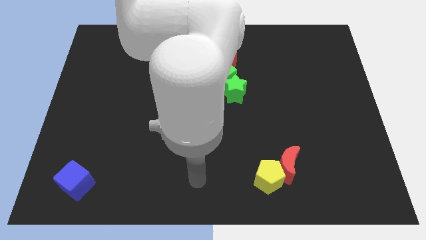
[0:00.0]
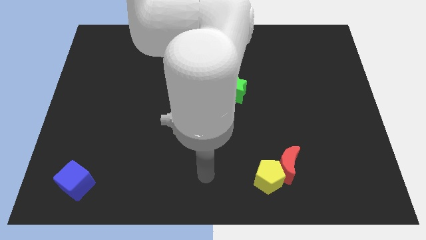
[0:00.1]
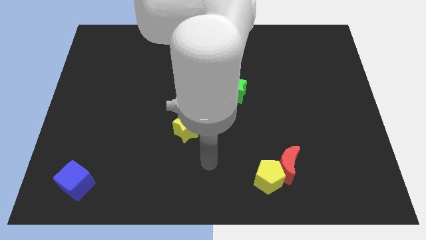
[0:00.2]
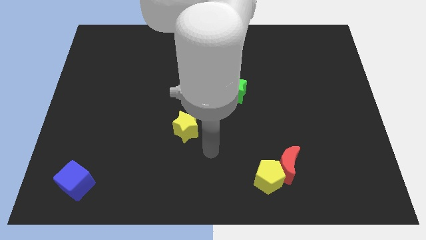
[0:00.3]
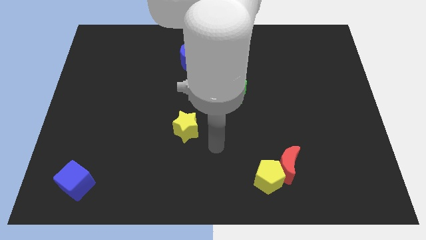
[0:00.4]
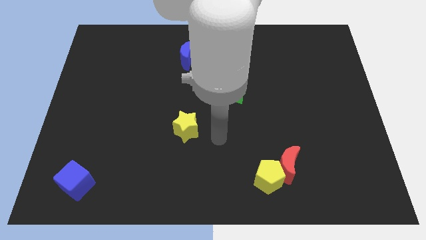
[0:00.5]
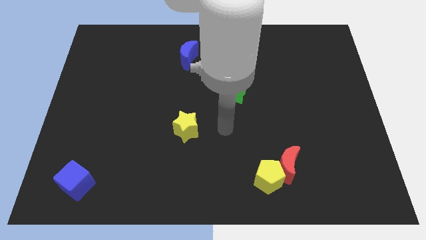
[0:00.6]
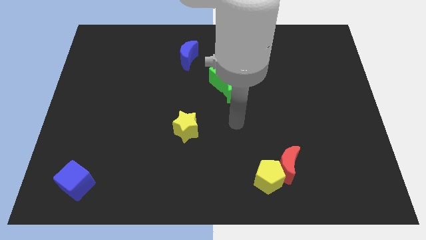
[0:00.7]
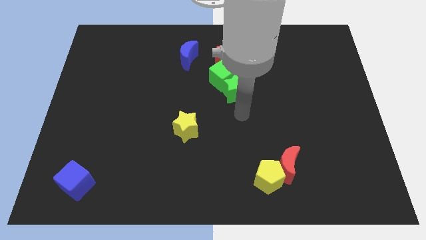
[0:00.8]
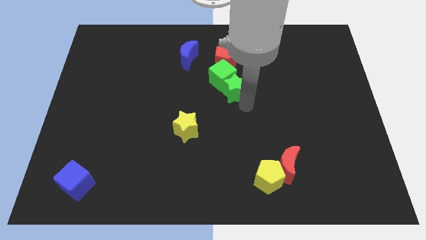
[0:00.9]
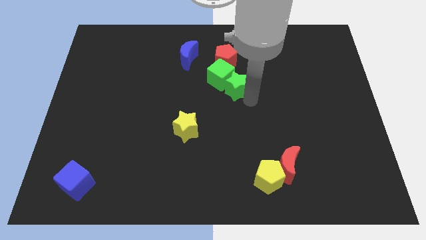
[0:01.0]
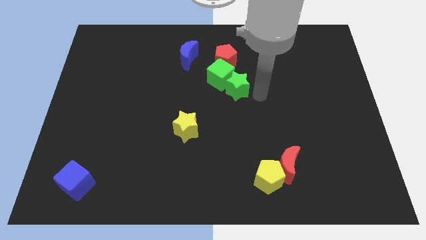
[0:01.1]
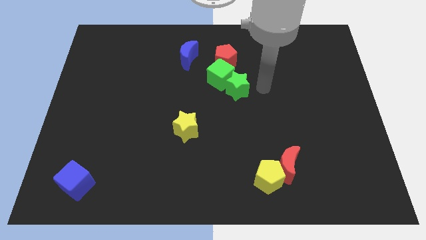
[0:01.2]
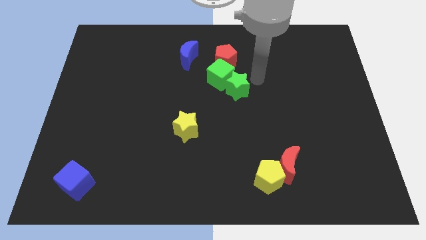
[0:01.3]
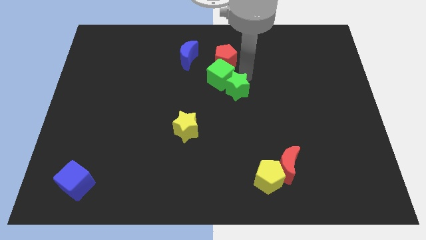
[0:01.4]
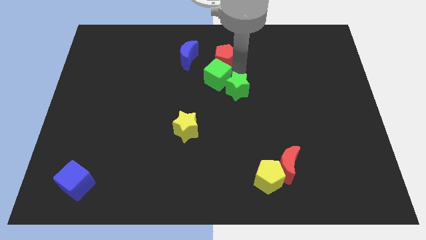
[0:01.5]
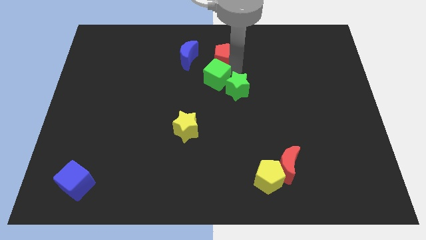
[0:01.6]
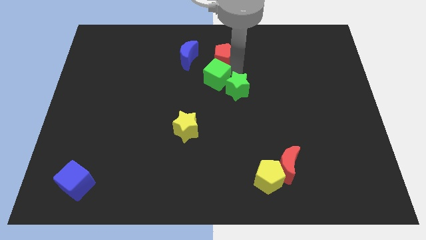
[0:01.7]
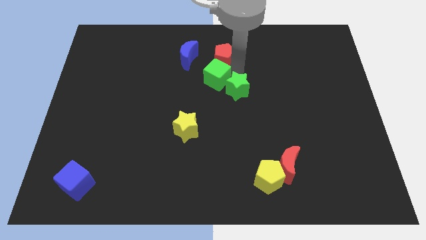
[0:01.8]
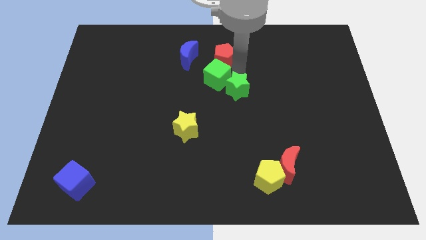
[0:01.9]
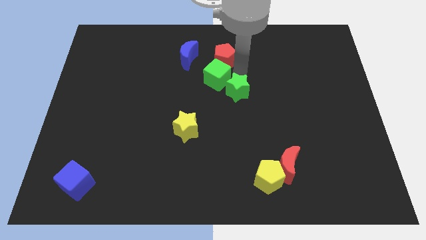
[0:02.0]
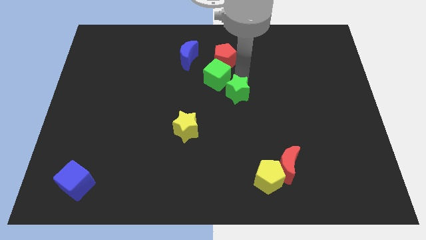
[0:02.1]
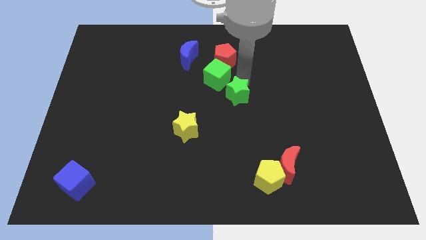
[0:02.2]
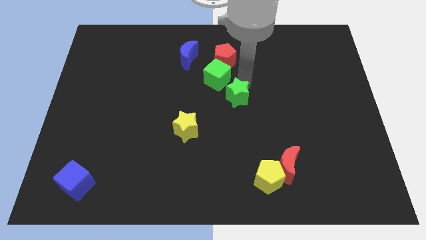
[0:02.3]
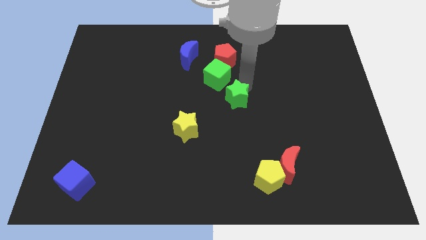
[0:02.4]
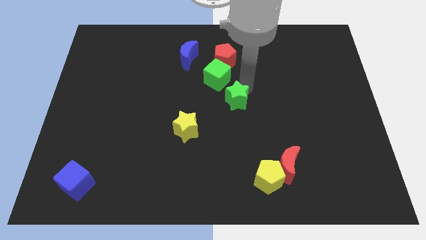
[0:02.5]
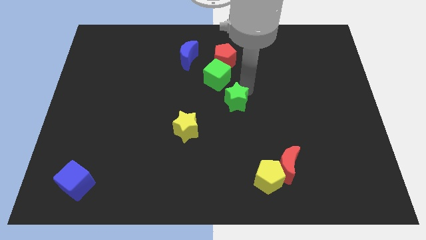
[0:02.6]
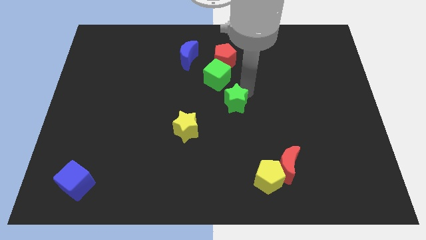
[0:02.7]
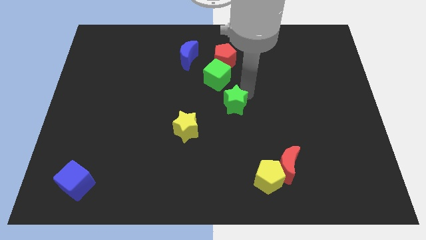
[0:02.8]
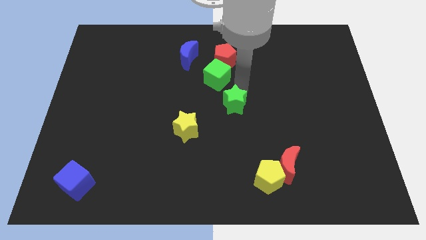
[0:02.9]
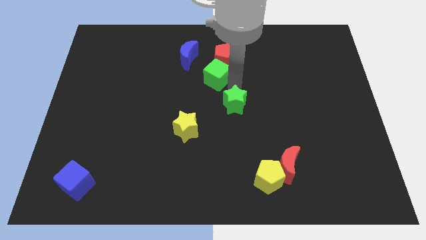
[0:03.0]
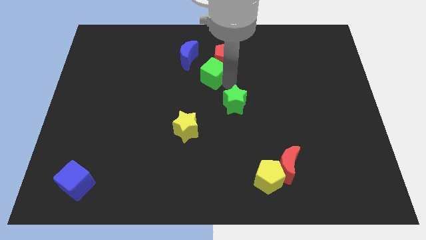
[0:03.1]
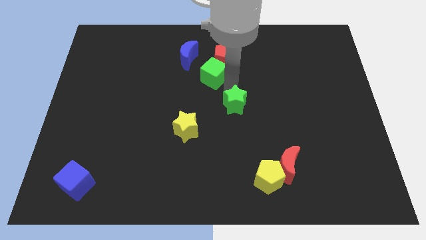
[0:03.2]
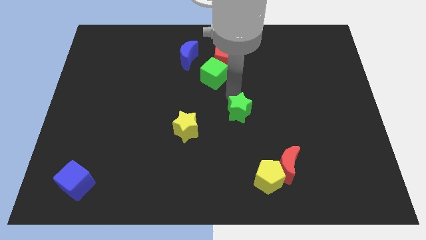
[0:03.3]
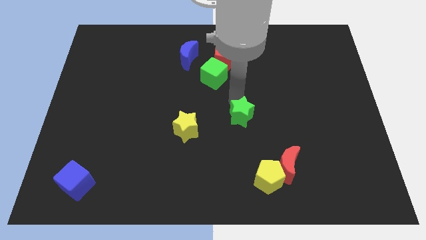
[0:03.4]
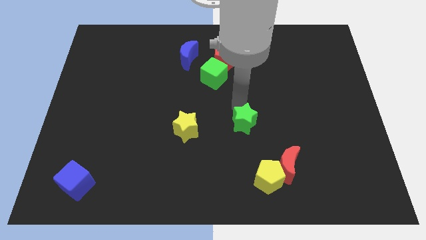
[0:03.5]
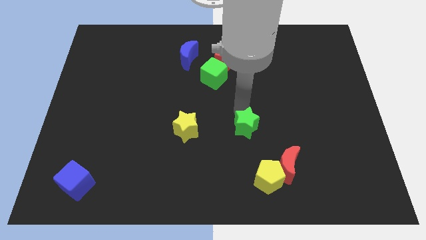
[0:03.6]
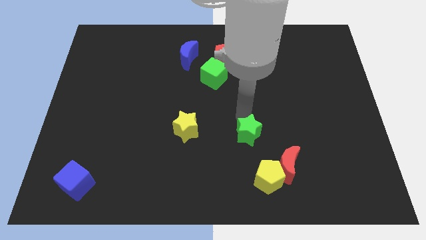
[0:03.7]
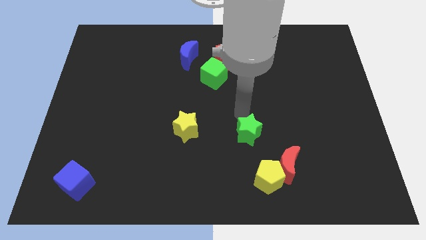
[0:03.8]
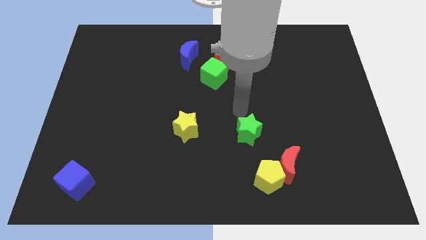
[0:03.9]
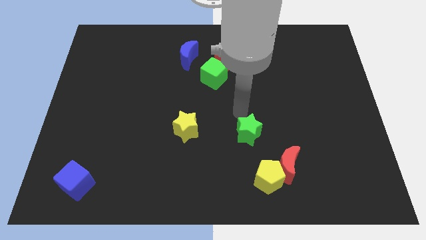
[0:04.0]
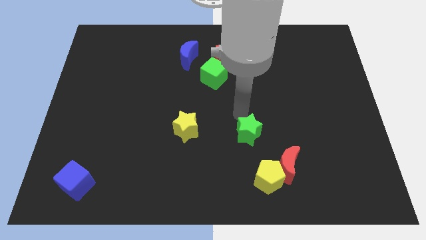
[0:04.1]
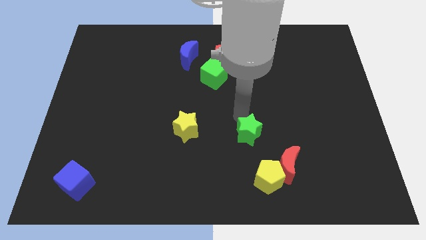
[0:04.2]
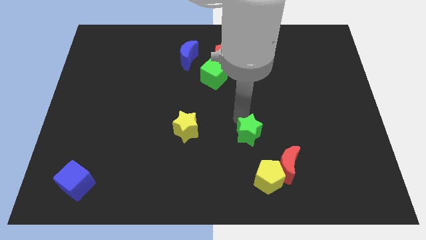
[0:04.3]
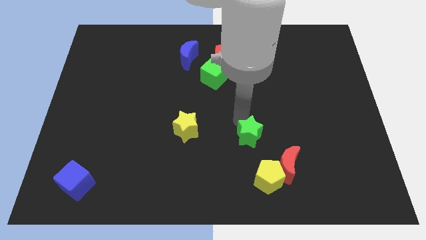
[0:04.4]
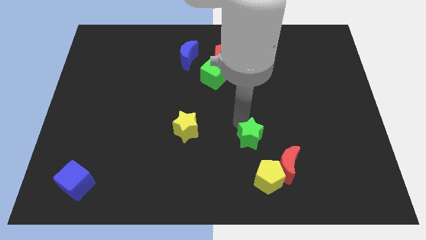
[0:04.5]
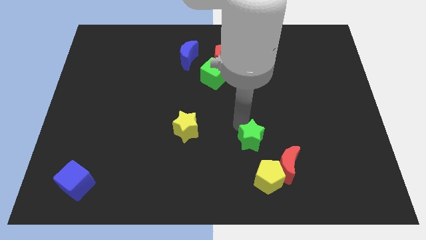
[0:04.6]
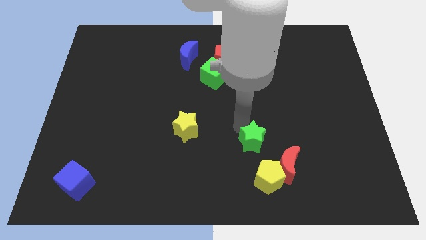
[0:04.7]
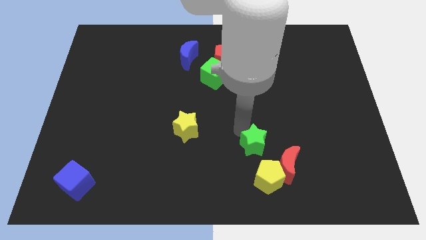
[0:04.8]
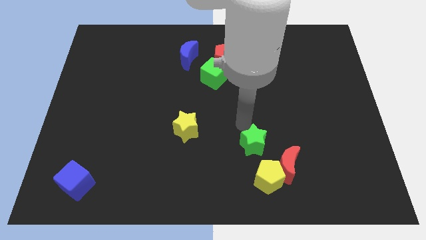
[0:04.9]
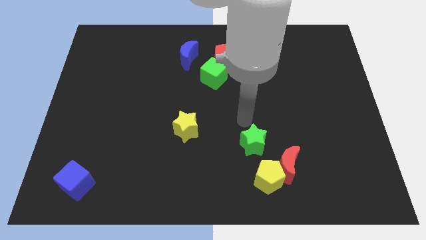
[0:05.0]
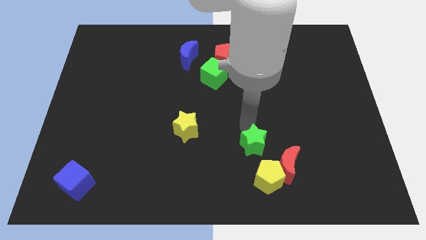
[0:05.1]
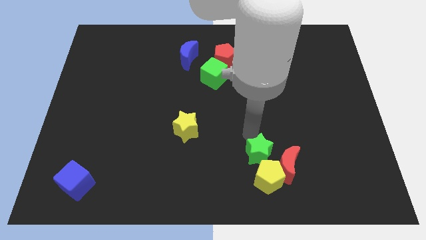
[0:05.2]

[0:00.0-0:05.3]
slide the green star to the yellow pentagon

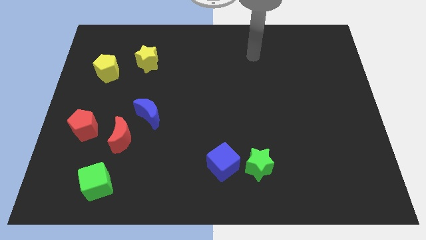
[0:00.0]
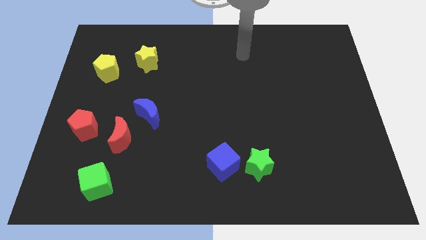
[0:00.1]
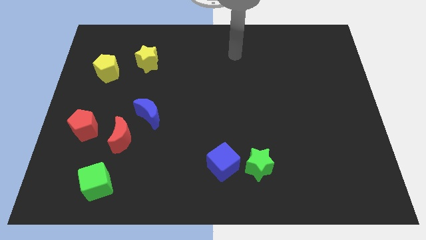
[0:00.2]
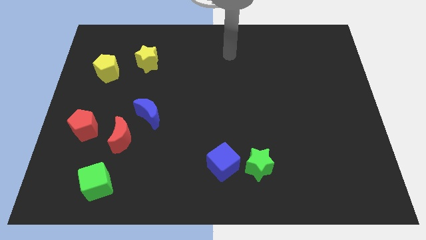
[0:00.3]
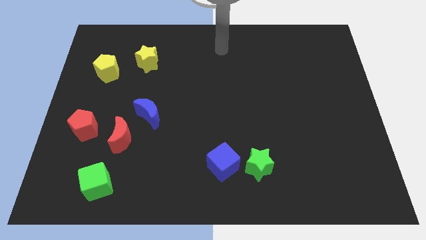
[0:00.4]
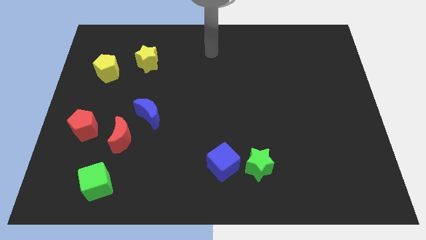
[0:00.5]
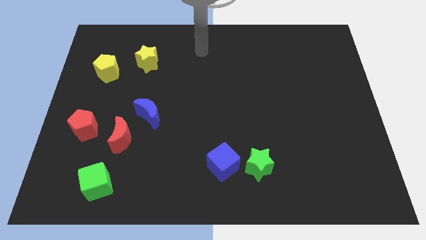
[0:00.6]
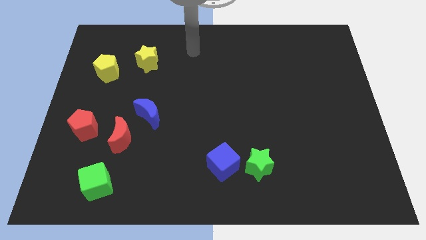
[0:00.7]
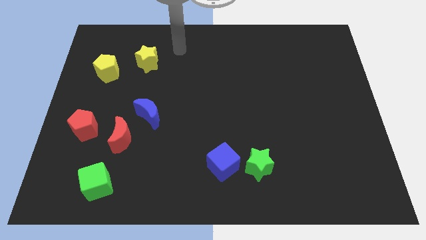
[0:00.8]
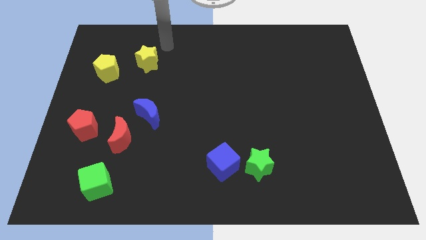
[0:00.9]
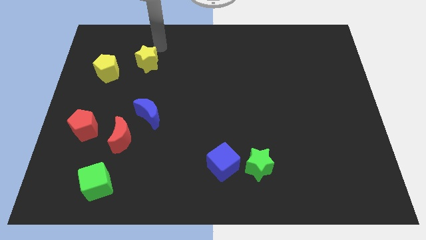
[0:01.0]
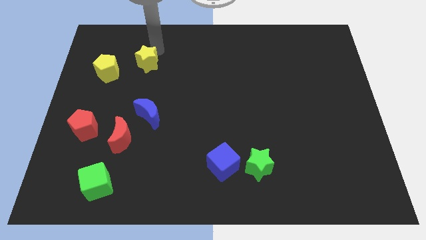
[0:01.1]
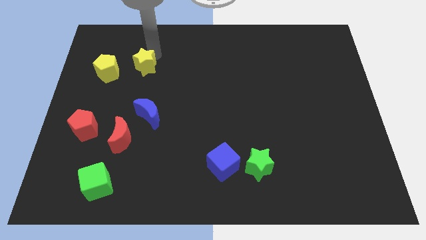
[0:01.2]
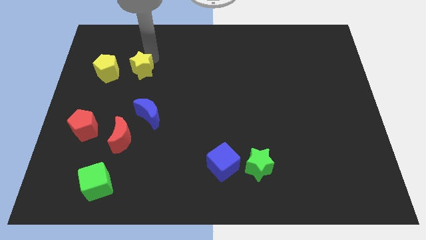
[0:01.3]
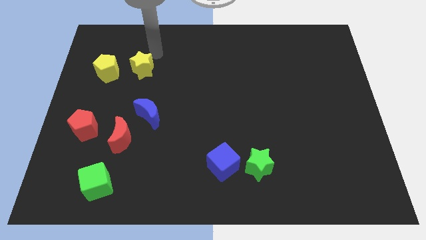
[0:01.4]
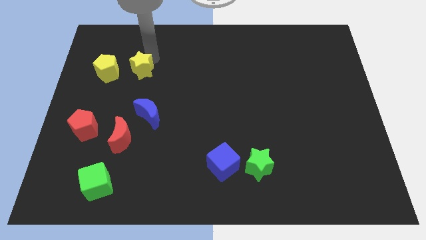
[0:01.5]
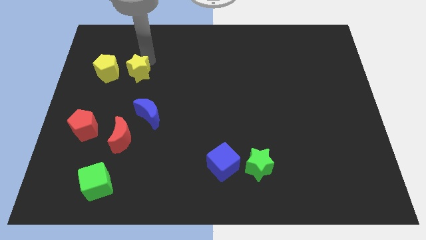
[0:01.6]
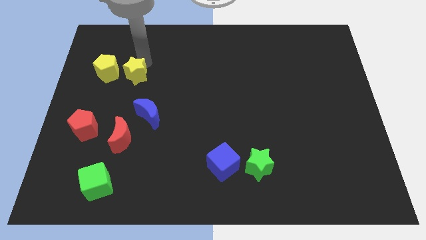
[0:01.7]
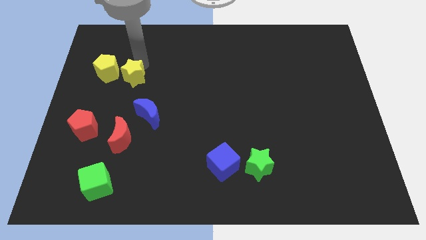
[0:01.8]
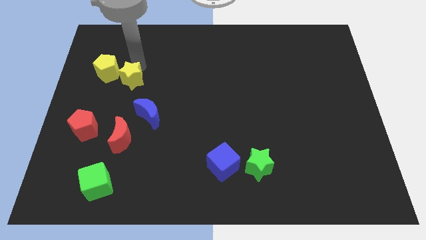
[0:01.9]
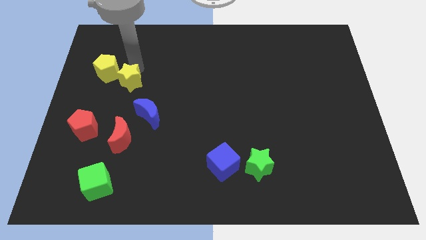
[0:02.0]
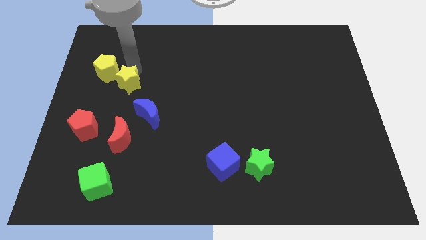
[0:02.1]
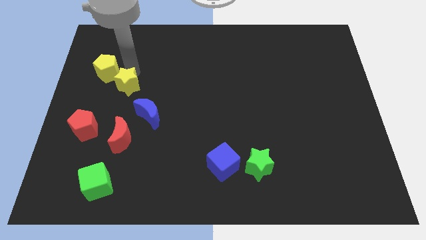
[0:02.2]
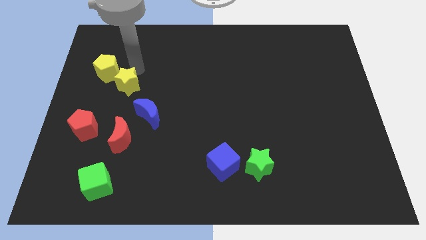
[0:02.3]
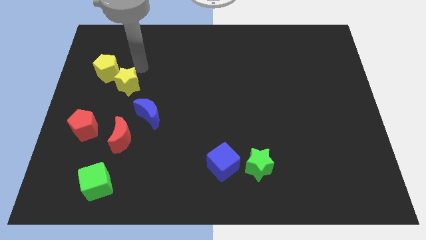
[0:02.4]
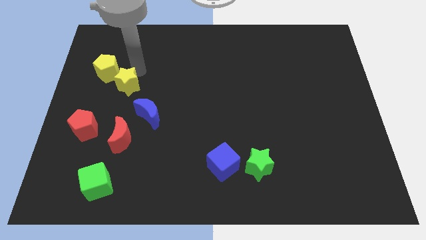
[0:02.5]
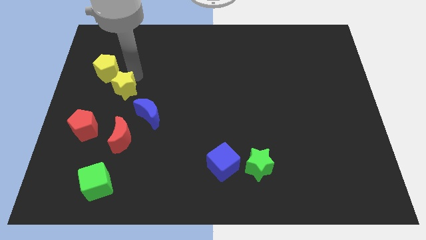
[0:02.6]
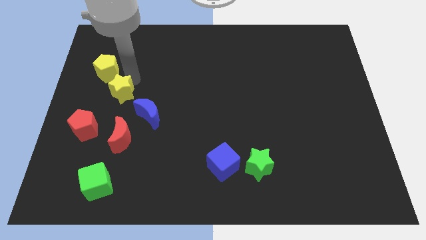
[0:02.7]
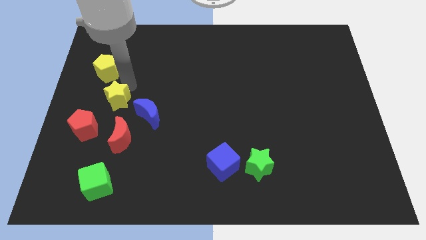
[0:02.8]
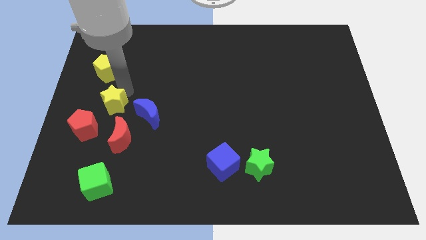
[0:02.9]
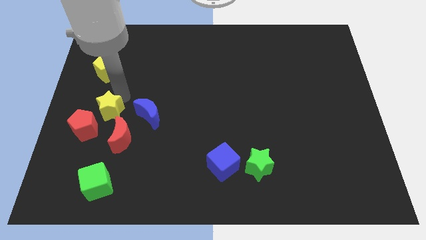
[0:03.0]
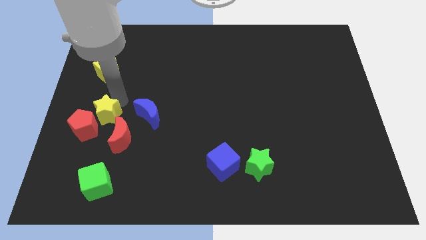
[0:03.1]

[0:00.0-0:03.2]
push the yellow star to the red pentagon
